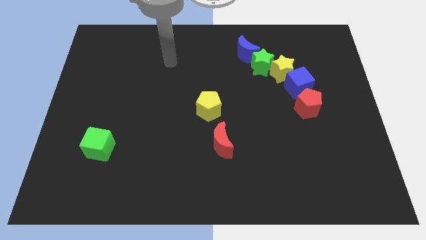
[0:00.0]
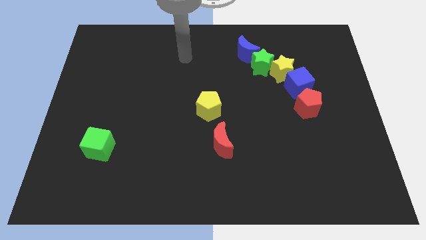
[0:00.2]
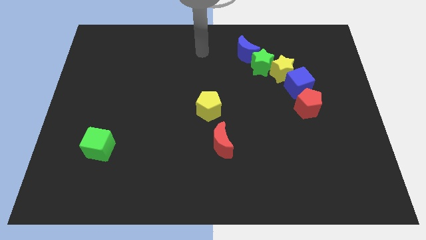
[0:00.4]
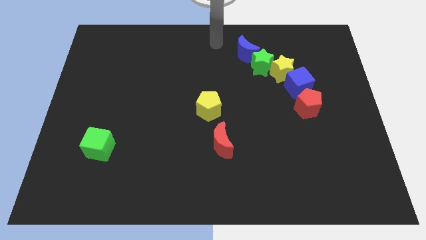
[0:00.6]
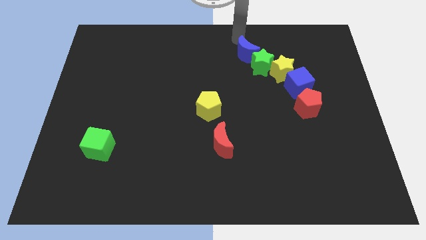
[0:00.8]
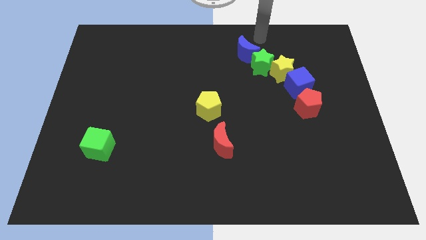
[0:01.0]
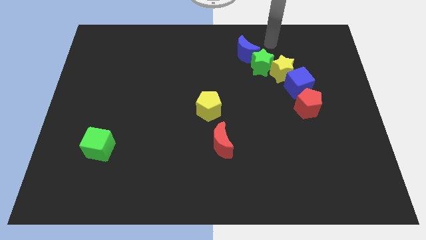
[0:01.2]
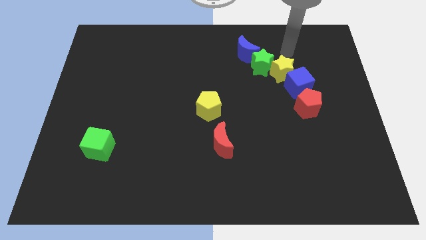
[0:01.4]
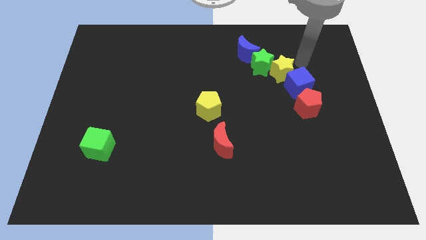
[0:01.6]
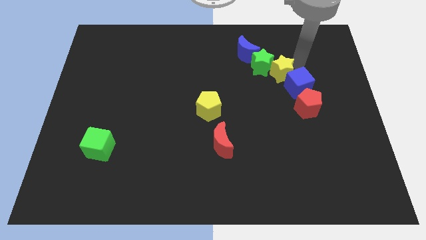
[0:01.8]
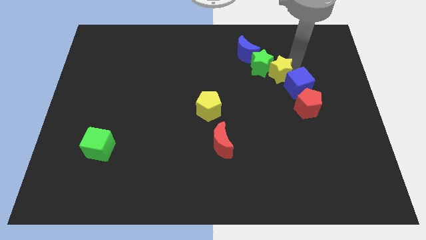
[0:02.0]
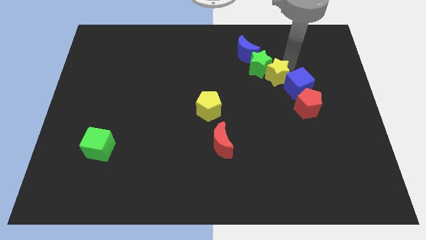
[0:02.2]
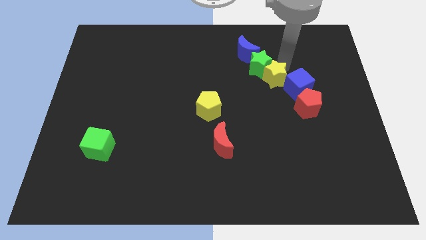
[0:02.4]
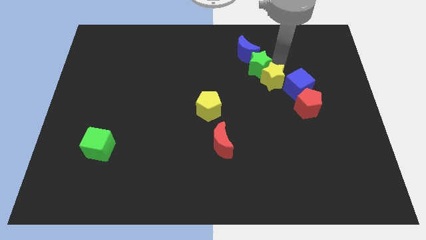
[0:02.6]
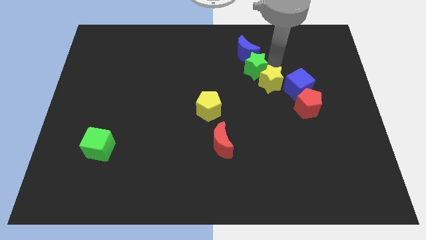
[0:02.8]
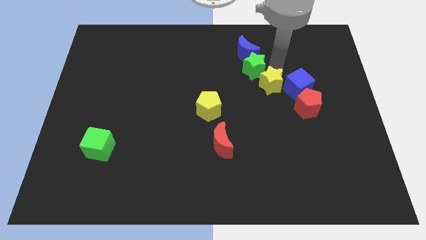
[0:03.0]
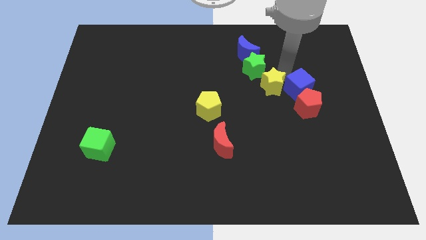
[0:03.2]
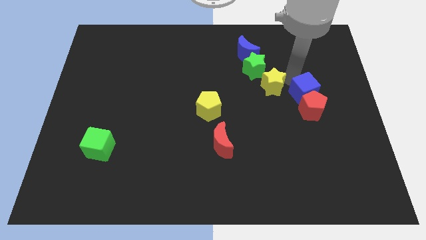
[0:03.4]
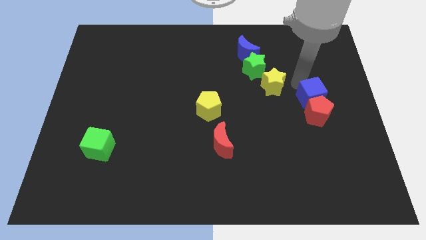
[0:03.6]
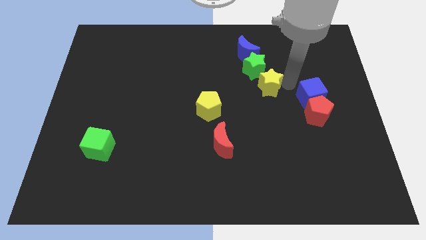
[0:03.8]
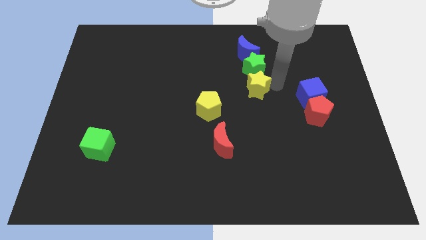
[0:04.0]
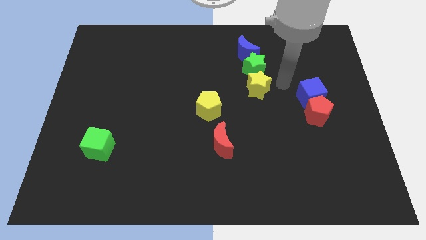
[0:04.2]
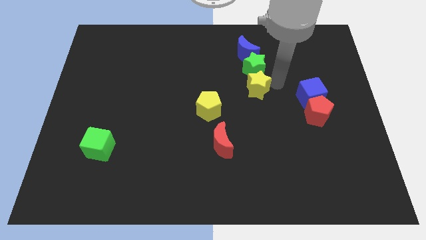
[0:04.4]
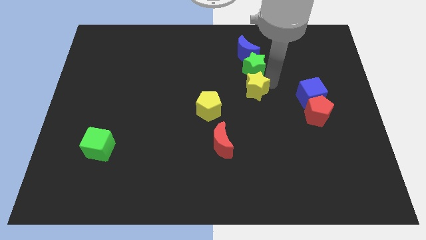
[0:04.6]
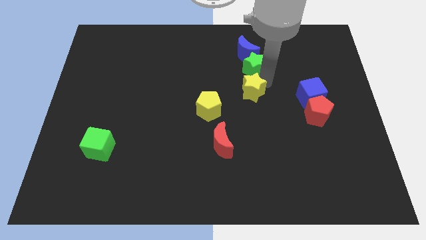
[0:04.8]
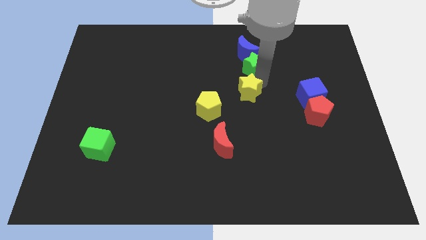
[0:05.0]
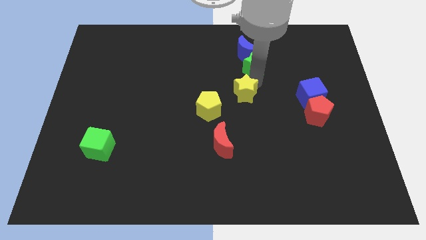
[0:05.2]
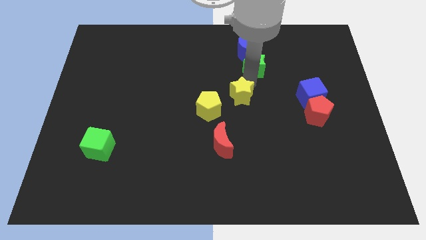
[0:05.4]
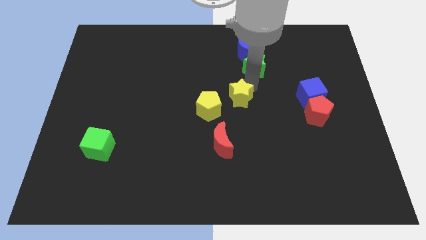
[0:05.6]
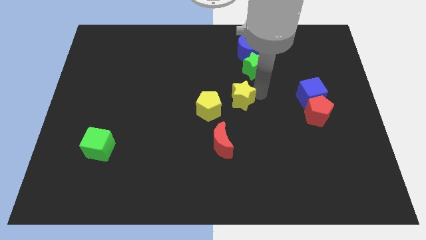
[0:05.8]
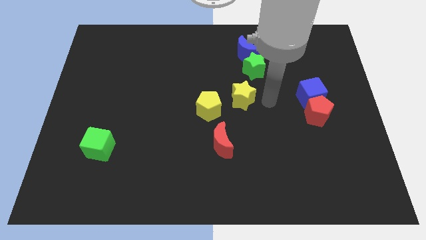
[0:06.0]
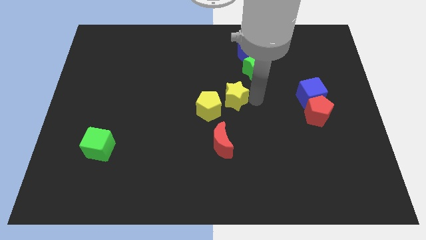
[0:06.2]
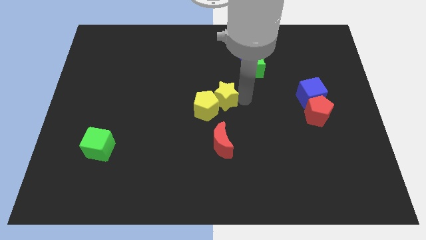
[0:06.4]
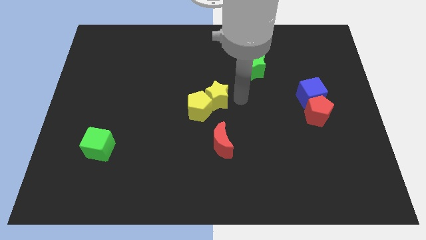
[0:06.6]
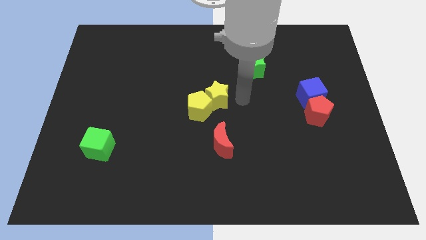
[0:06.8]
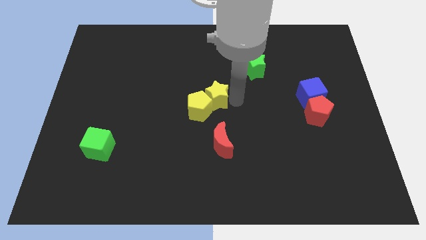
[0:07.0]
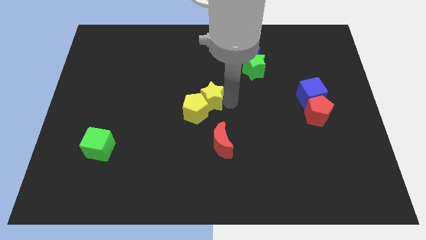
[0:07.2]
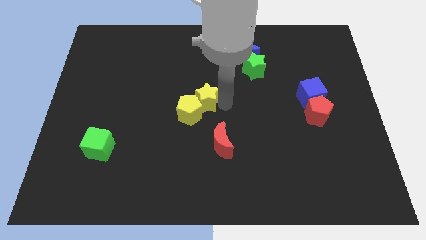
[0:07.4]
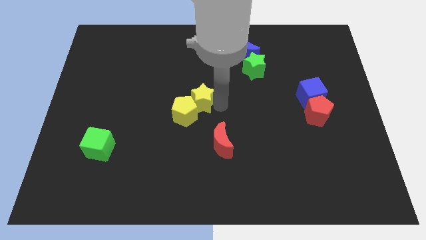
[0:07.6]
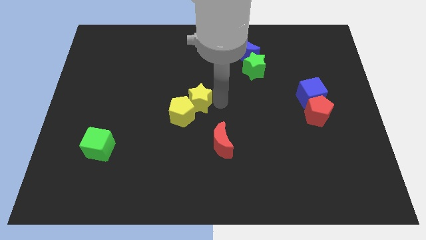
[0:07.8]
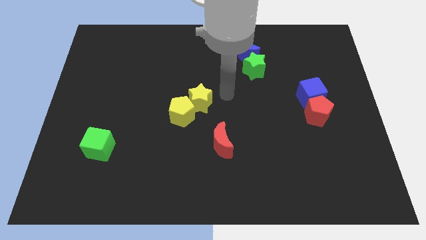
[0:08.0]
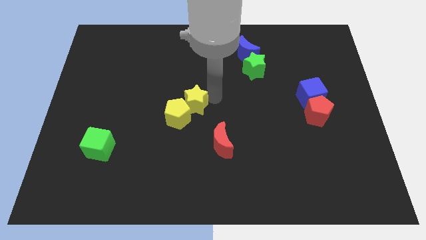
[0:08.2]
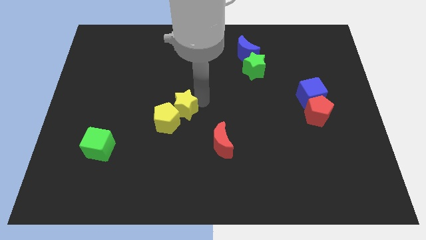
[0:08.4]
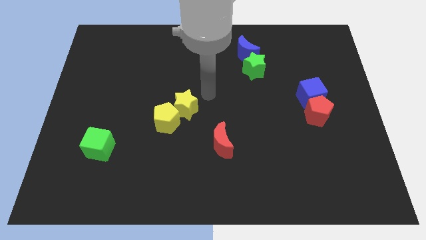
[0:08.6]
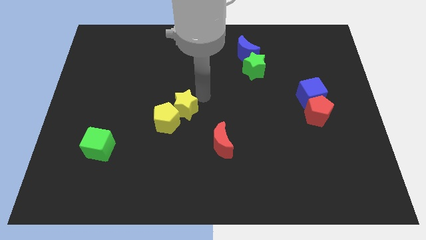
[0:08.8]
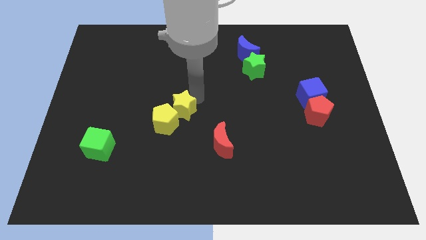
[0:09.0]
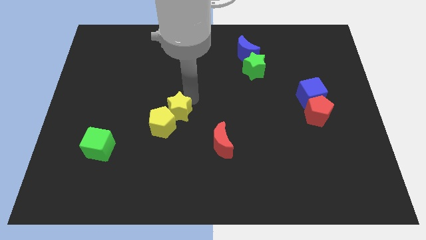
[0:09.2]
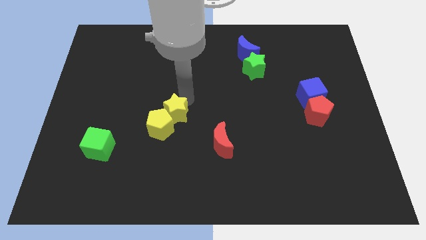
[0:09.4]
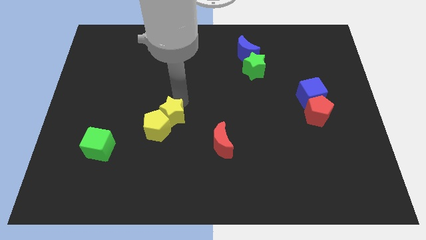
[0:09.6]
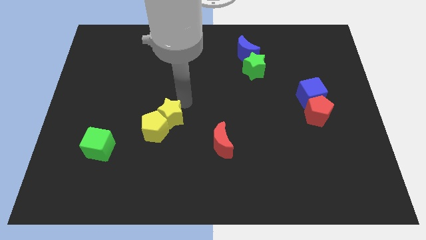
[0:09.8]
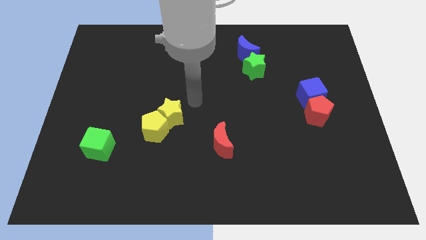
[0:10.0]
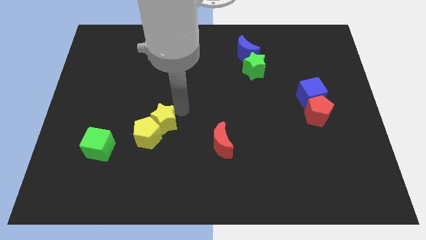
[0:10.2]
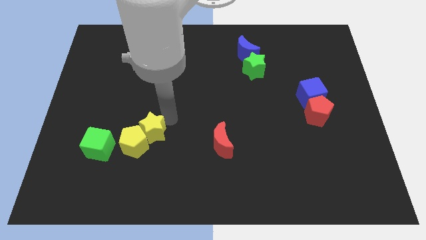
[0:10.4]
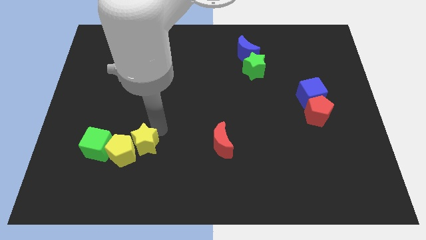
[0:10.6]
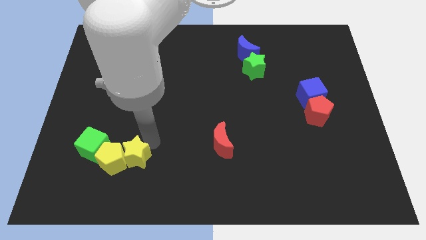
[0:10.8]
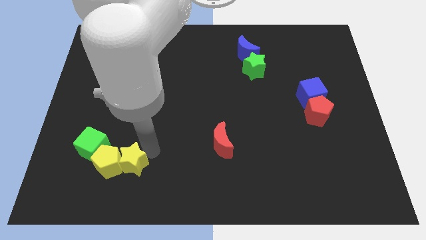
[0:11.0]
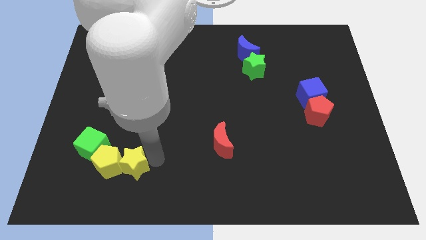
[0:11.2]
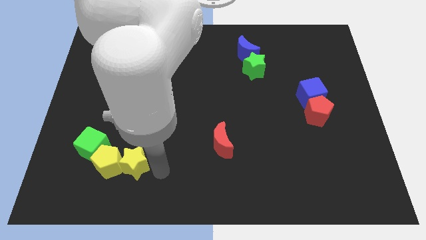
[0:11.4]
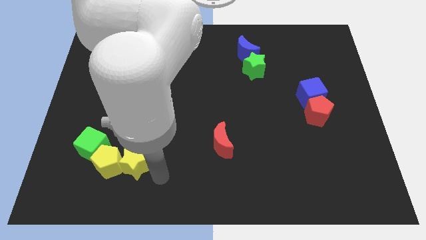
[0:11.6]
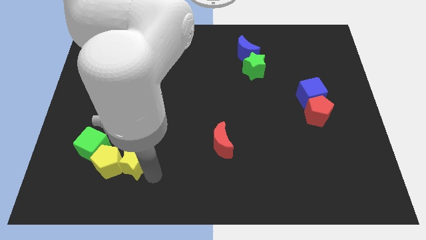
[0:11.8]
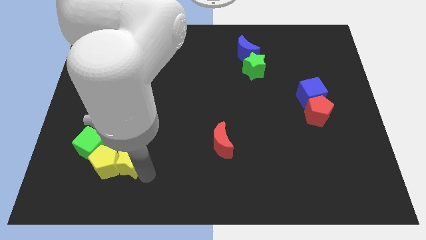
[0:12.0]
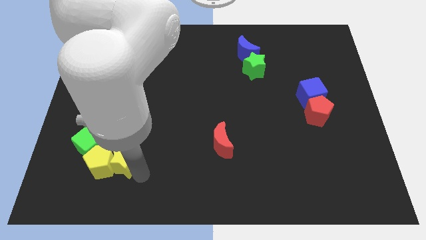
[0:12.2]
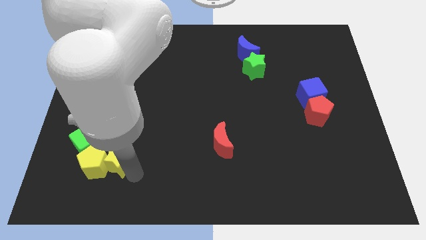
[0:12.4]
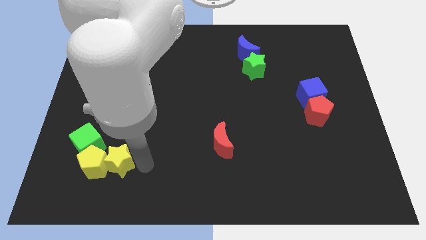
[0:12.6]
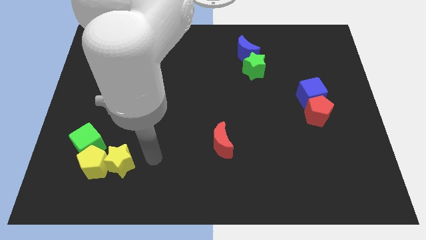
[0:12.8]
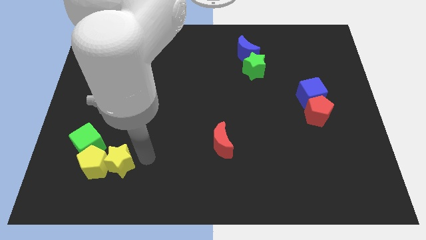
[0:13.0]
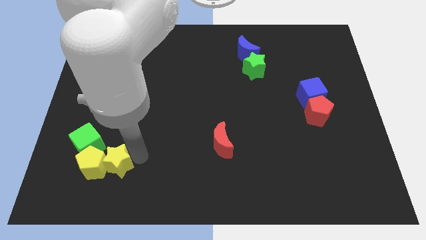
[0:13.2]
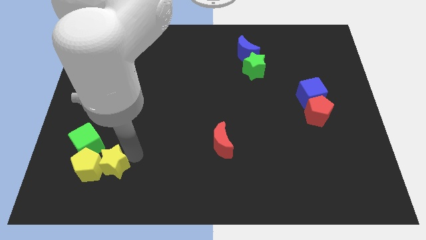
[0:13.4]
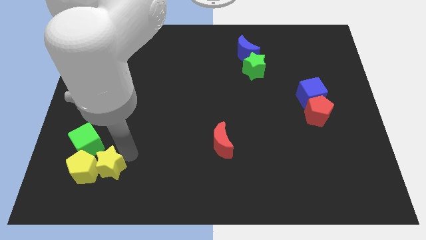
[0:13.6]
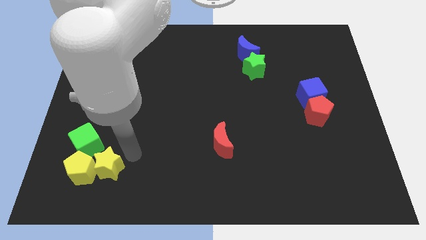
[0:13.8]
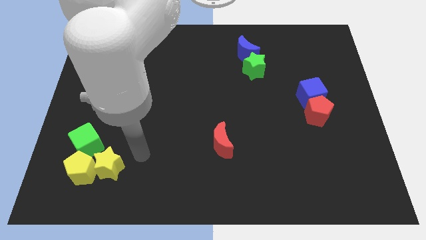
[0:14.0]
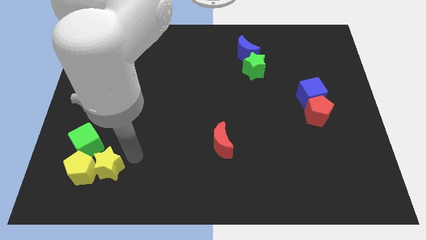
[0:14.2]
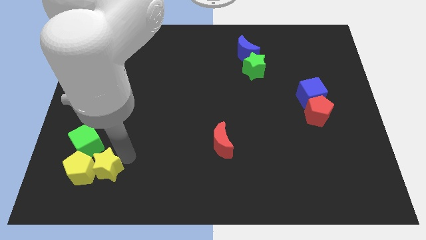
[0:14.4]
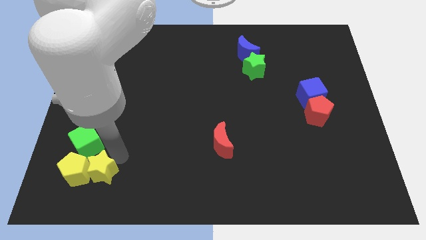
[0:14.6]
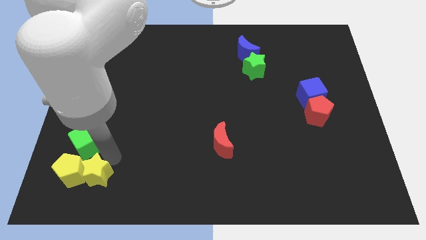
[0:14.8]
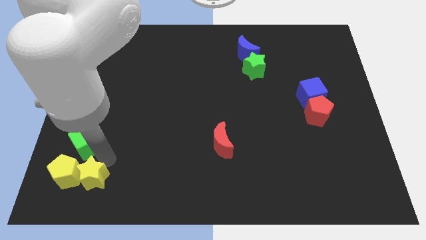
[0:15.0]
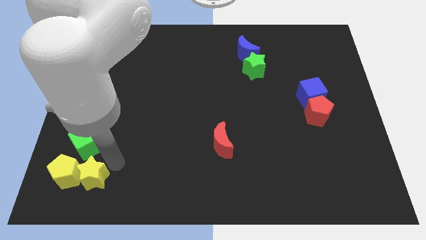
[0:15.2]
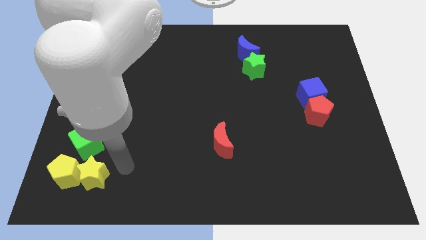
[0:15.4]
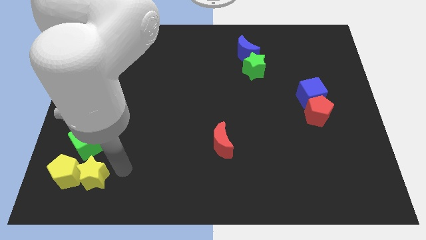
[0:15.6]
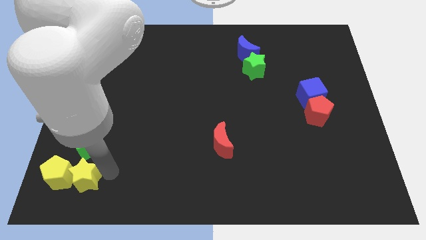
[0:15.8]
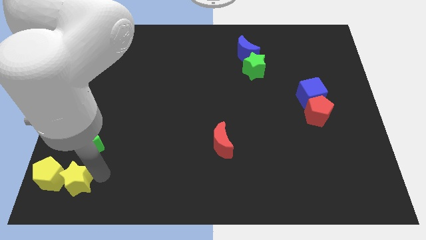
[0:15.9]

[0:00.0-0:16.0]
put the yellow star to the bottom left of the board
